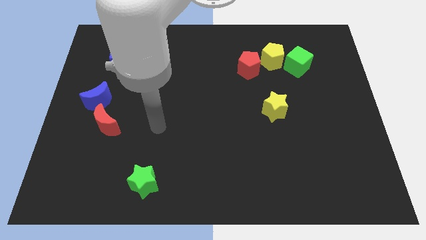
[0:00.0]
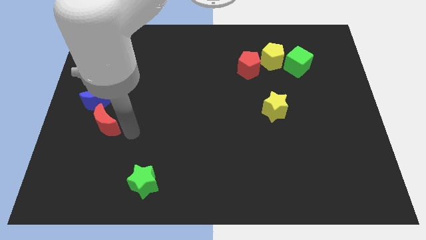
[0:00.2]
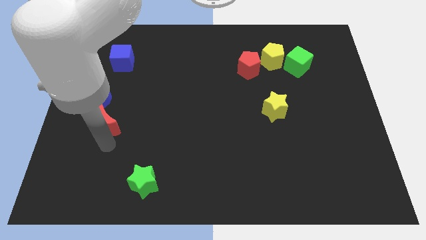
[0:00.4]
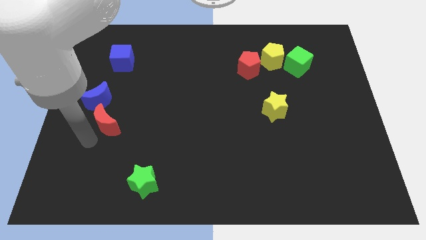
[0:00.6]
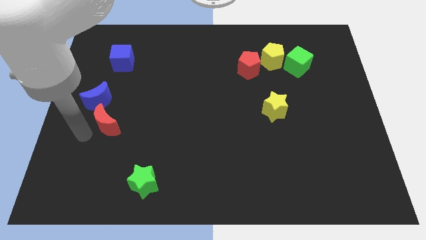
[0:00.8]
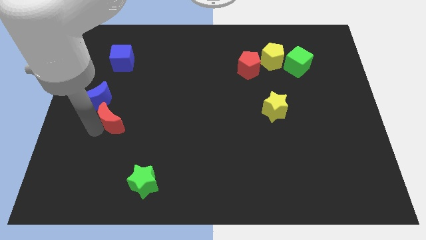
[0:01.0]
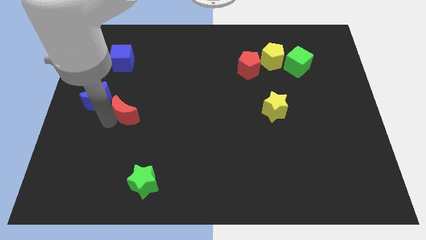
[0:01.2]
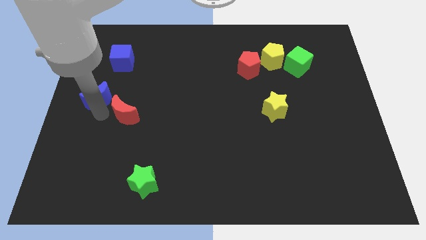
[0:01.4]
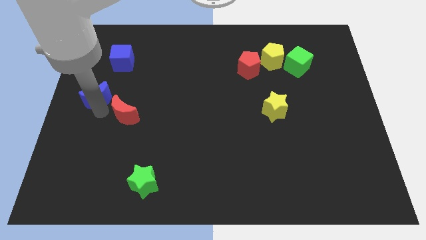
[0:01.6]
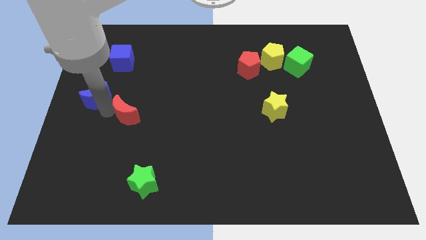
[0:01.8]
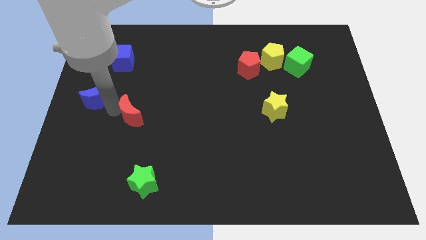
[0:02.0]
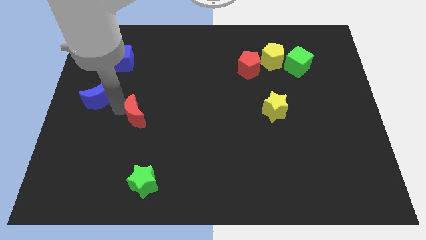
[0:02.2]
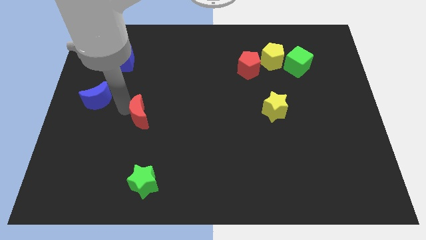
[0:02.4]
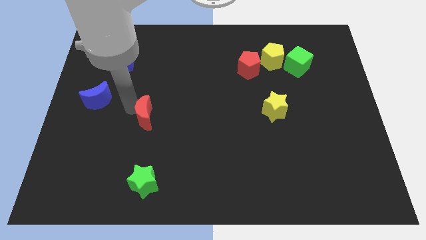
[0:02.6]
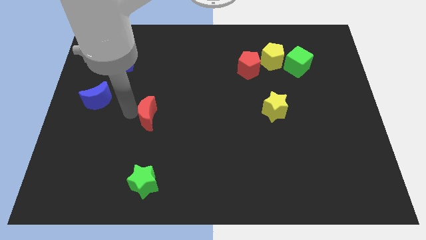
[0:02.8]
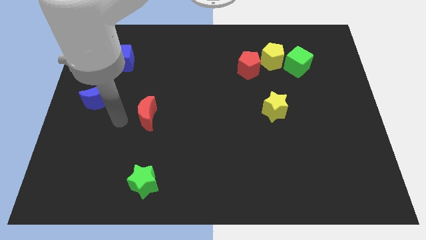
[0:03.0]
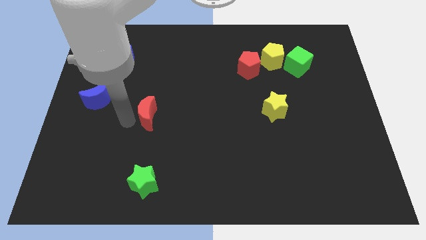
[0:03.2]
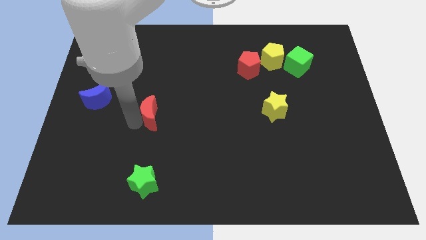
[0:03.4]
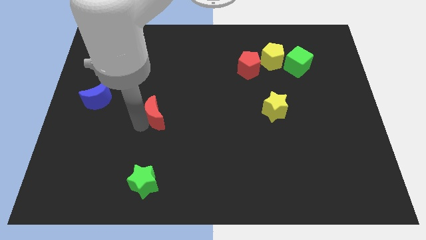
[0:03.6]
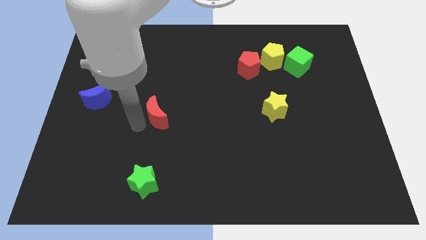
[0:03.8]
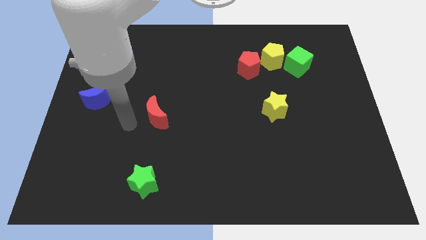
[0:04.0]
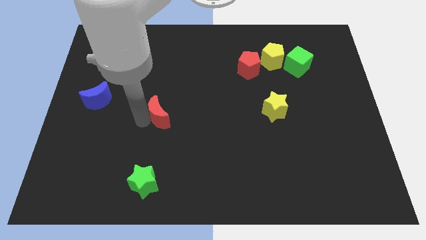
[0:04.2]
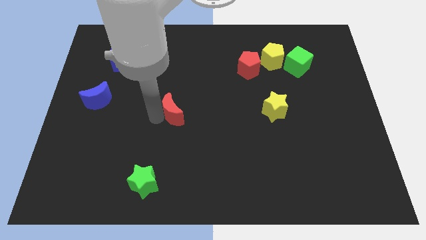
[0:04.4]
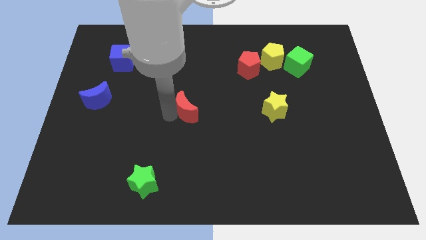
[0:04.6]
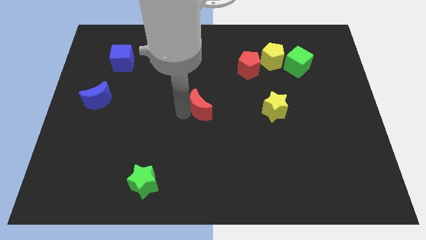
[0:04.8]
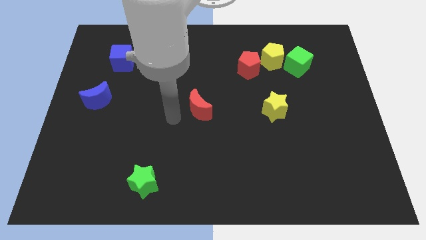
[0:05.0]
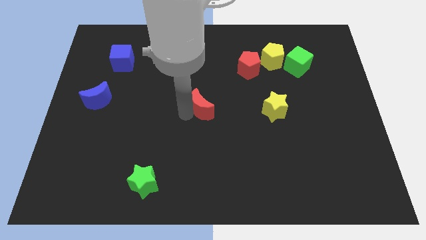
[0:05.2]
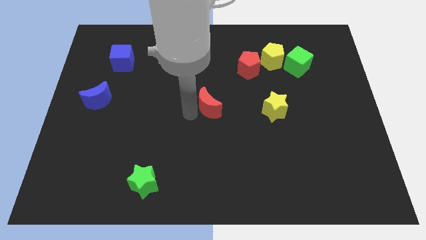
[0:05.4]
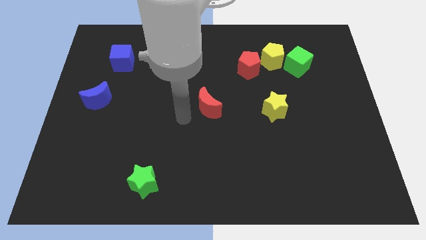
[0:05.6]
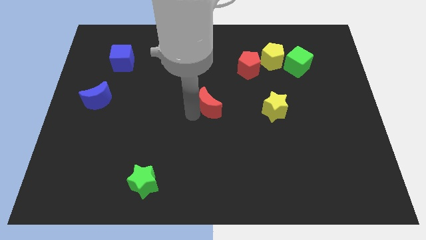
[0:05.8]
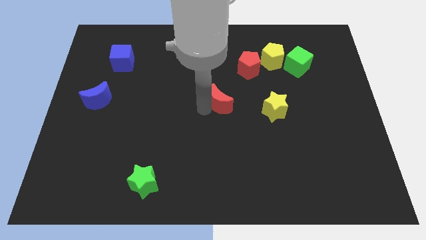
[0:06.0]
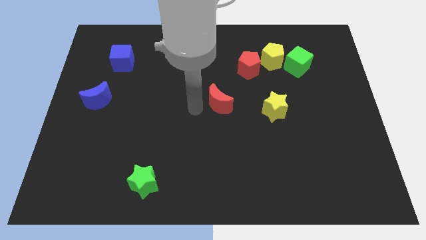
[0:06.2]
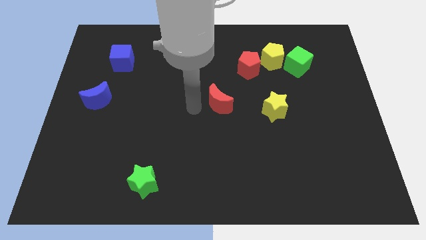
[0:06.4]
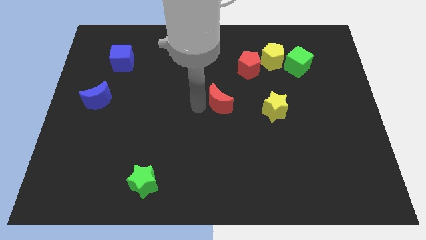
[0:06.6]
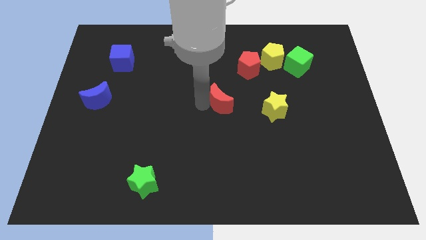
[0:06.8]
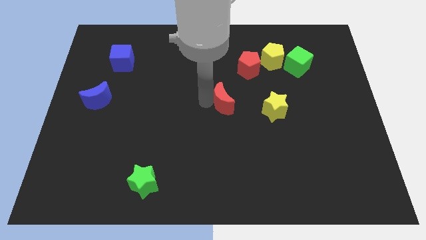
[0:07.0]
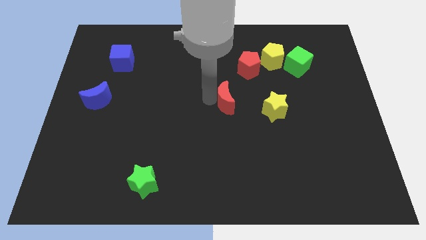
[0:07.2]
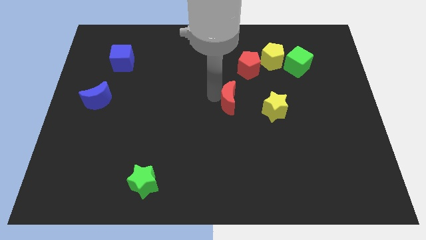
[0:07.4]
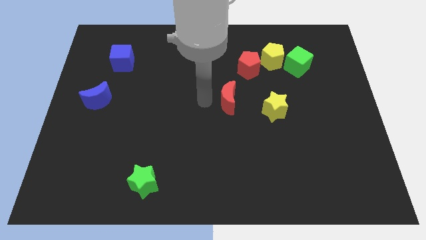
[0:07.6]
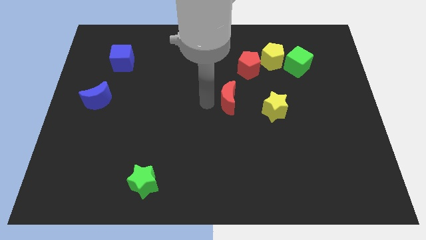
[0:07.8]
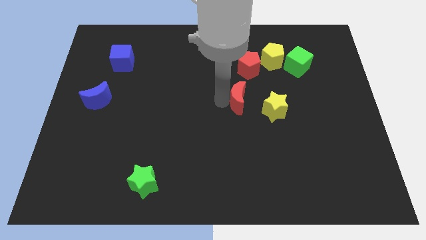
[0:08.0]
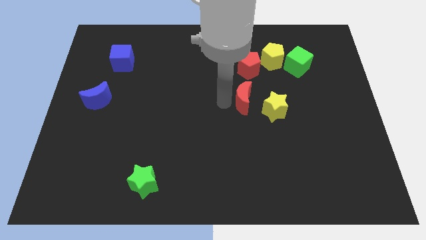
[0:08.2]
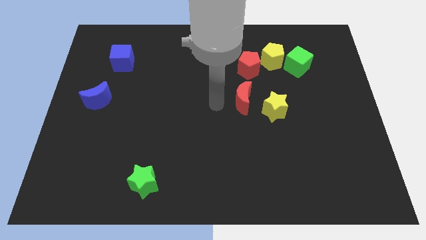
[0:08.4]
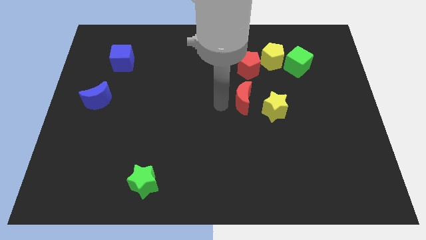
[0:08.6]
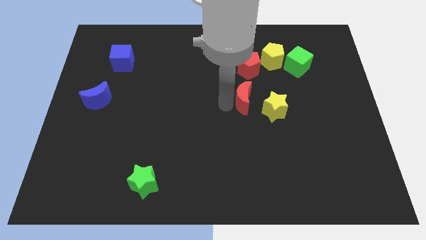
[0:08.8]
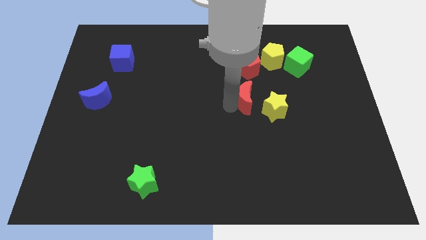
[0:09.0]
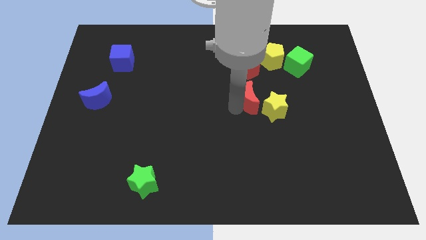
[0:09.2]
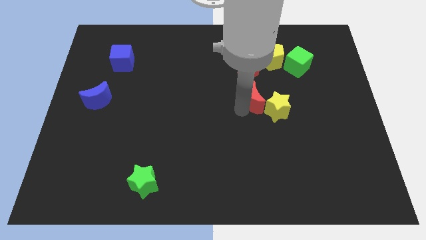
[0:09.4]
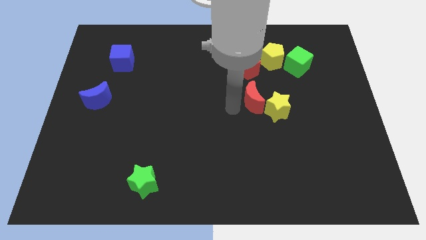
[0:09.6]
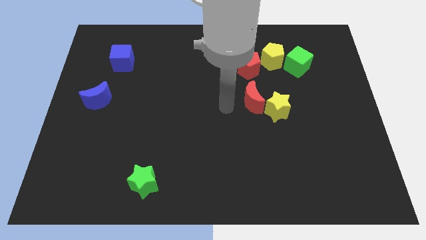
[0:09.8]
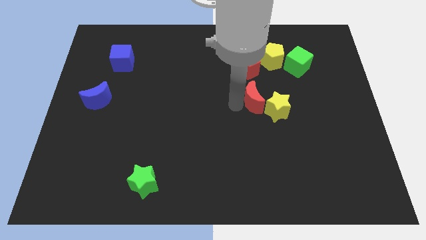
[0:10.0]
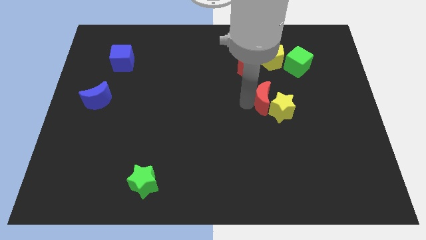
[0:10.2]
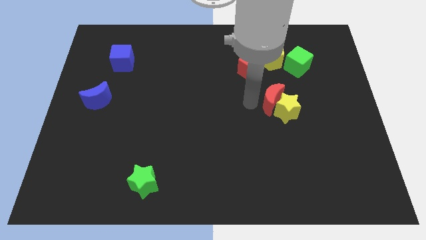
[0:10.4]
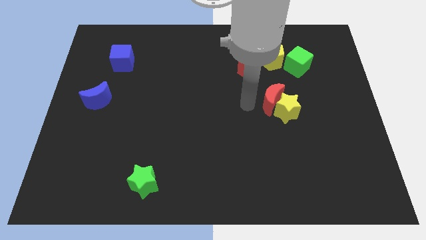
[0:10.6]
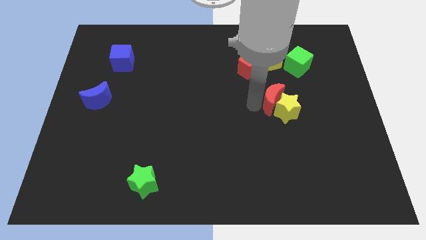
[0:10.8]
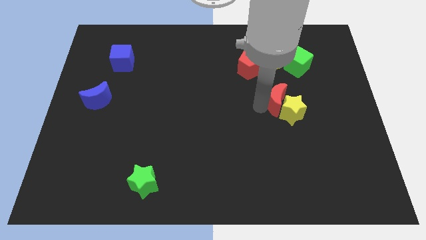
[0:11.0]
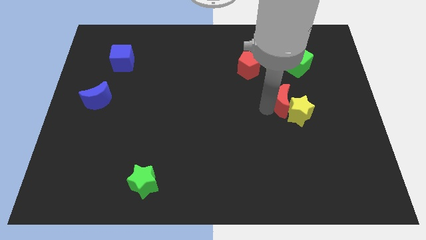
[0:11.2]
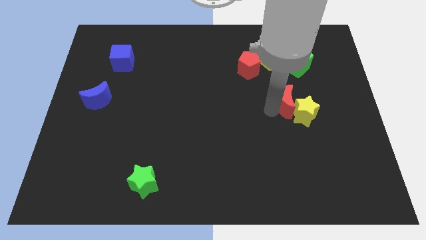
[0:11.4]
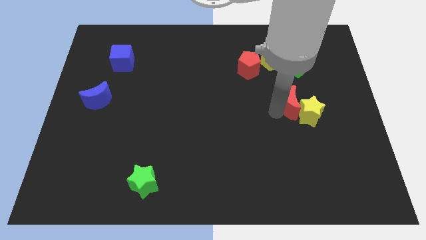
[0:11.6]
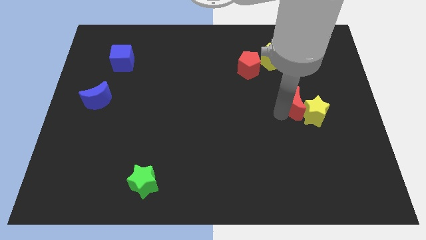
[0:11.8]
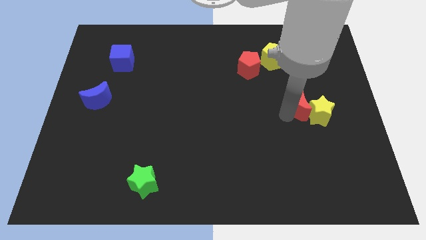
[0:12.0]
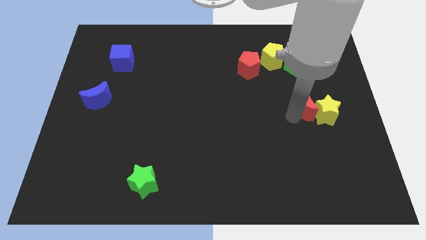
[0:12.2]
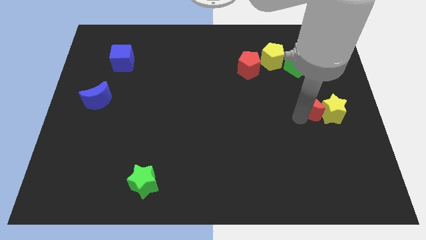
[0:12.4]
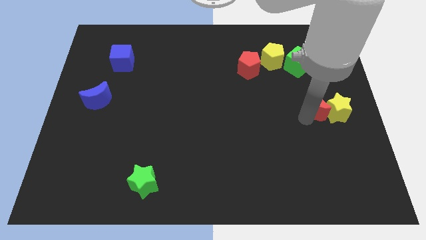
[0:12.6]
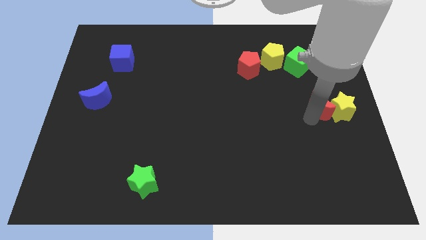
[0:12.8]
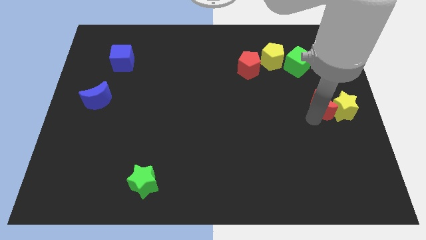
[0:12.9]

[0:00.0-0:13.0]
put the red moon to the center right

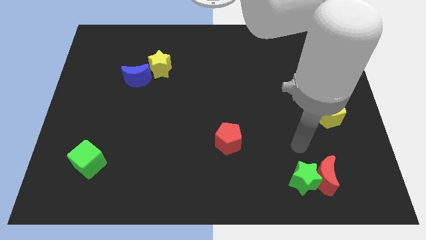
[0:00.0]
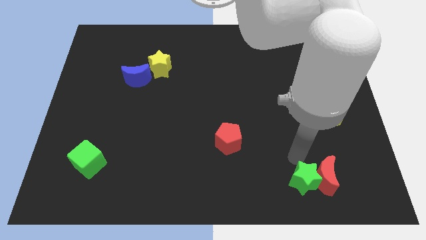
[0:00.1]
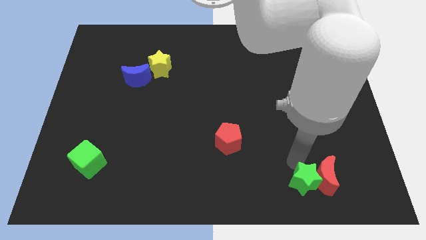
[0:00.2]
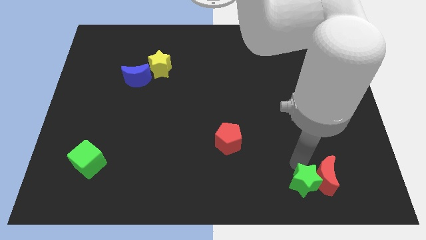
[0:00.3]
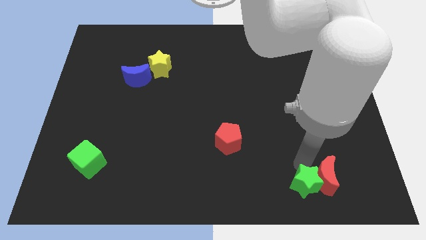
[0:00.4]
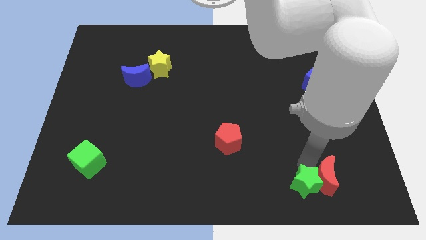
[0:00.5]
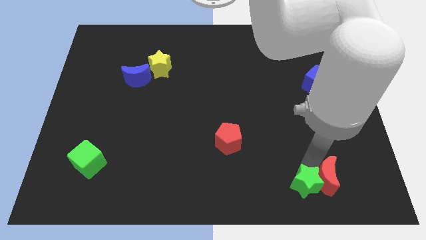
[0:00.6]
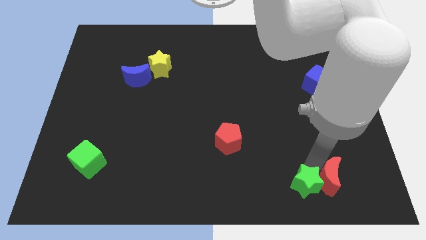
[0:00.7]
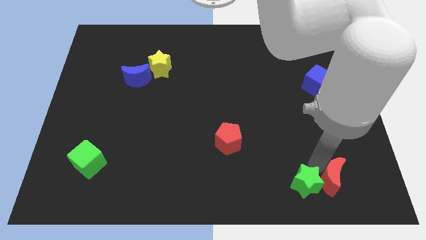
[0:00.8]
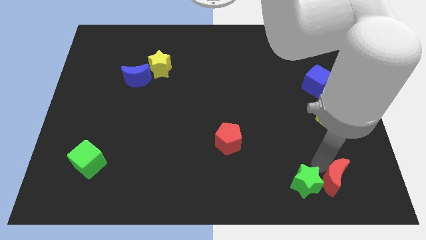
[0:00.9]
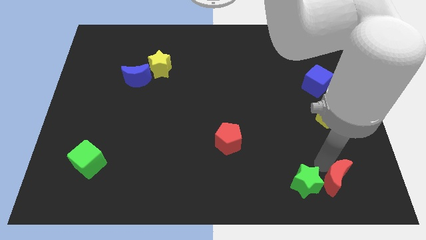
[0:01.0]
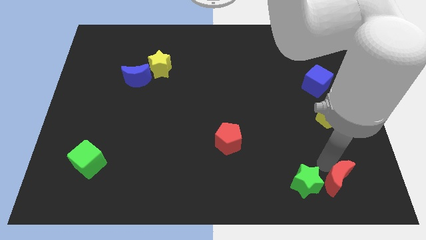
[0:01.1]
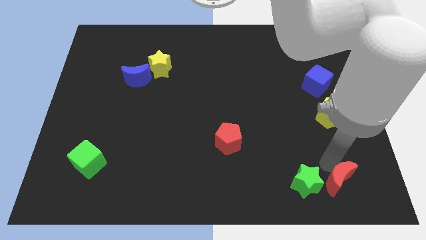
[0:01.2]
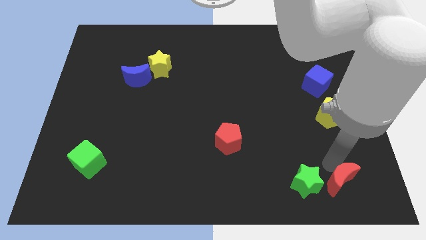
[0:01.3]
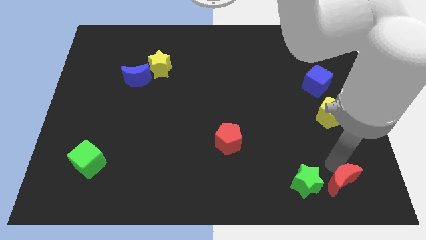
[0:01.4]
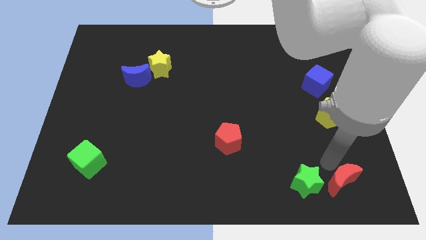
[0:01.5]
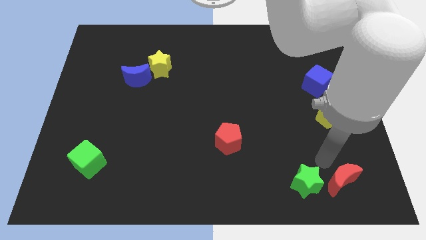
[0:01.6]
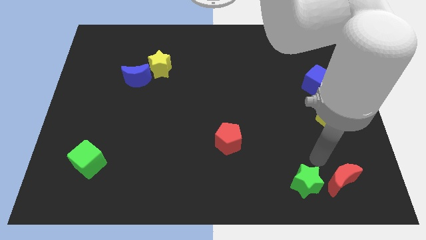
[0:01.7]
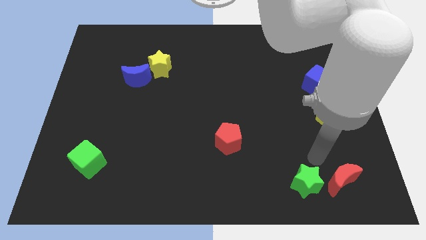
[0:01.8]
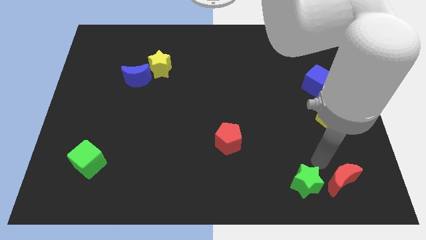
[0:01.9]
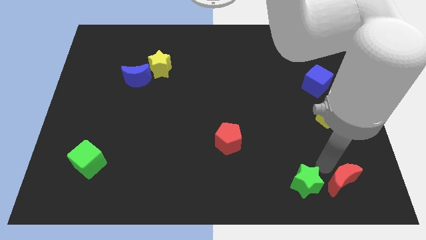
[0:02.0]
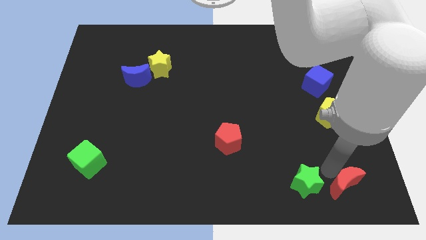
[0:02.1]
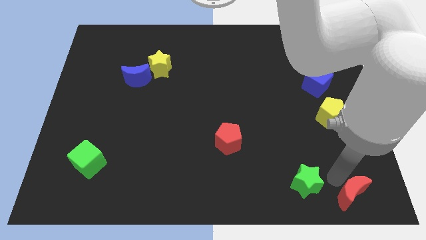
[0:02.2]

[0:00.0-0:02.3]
move the red moon to the bottom right corner
